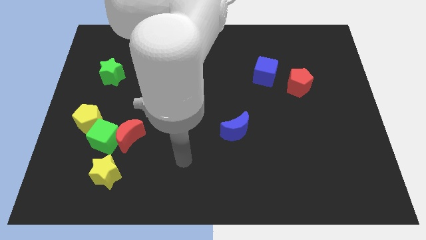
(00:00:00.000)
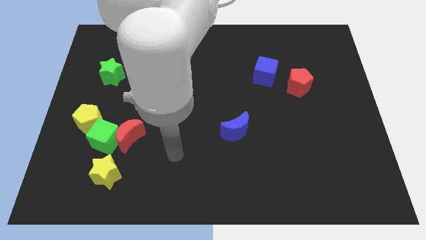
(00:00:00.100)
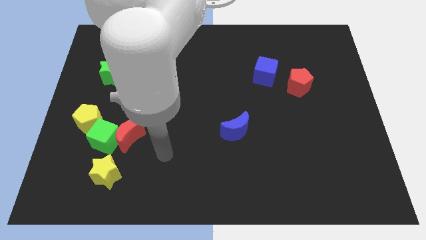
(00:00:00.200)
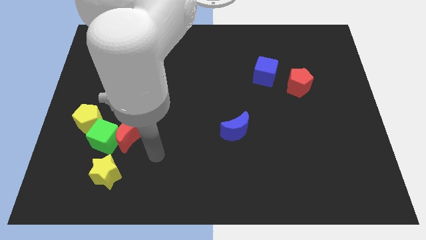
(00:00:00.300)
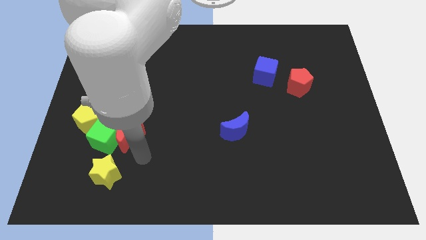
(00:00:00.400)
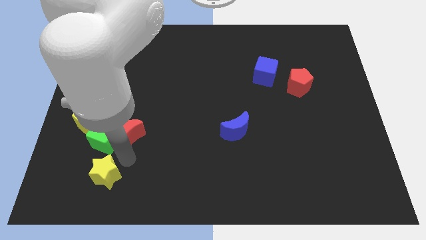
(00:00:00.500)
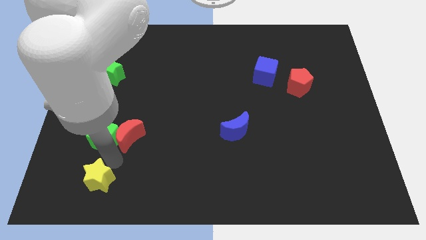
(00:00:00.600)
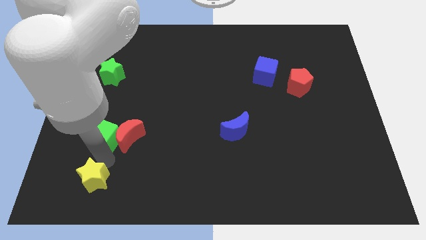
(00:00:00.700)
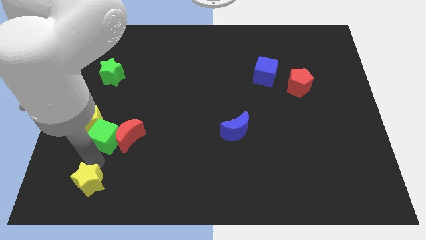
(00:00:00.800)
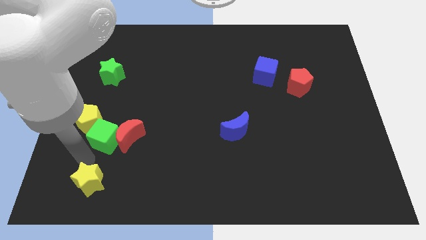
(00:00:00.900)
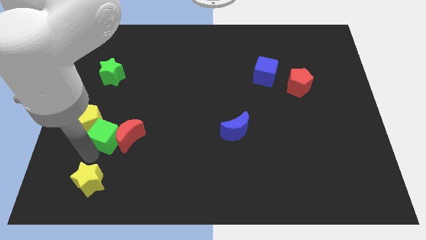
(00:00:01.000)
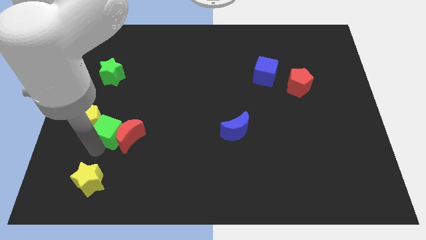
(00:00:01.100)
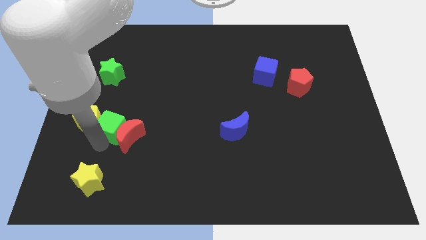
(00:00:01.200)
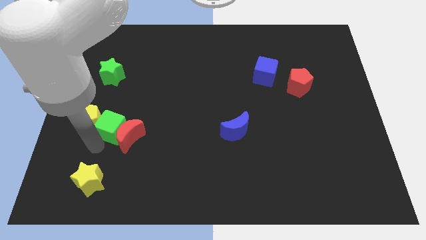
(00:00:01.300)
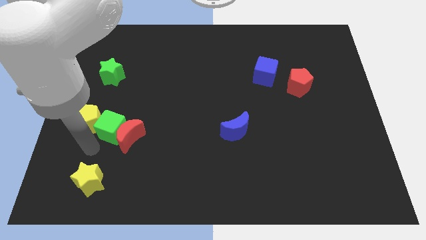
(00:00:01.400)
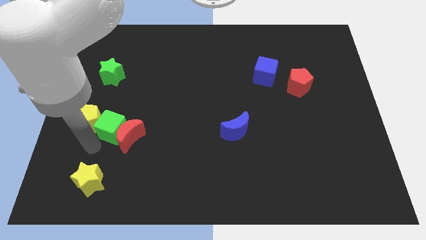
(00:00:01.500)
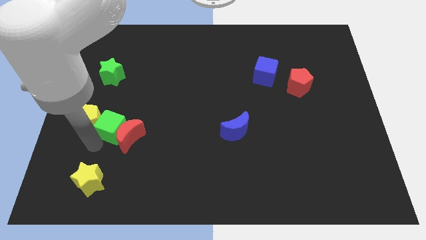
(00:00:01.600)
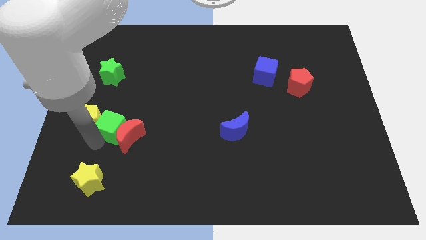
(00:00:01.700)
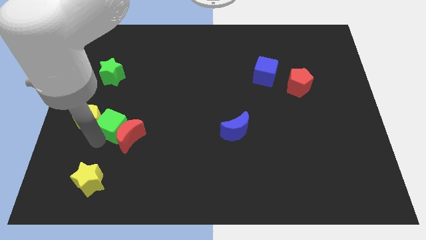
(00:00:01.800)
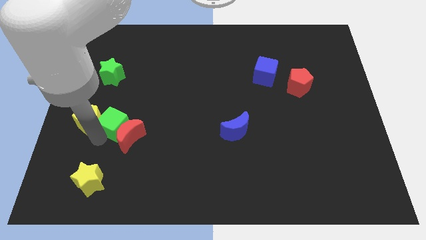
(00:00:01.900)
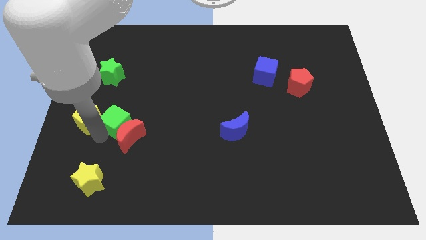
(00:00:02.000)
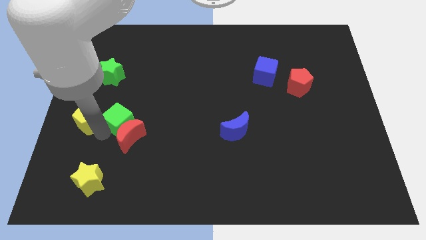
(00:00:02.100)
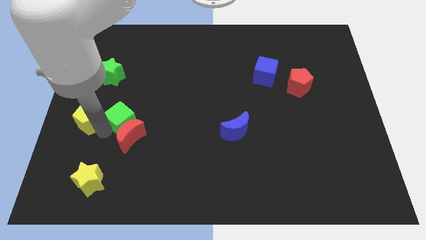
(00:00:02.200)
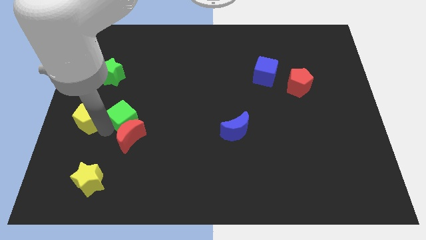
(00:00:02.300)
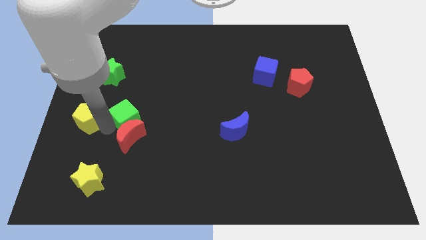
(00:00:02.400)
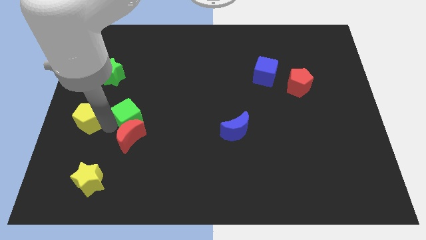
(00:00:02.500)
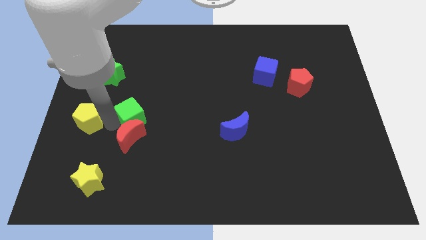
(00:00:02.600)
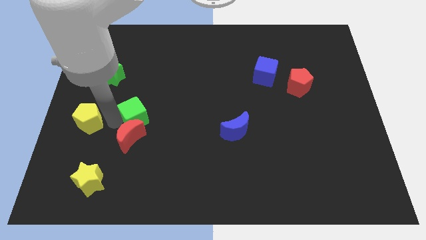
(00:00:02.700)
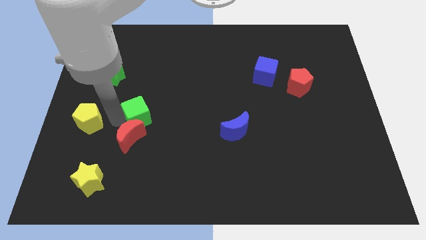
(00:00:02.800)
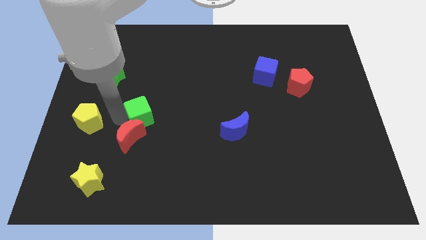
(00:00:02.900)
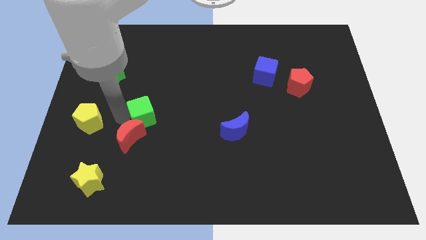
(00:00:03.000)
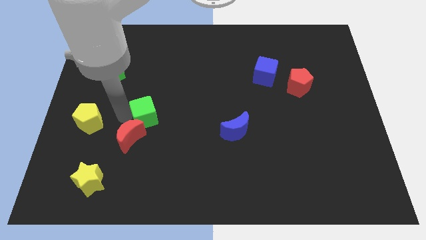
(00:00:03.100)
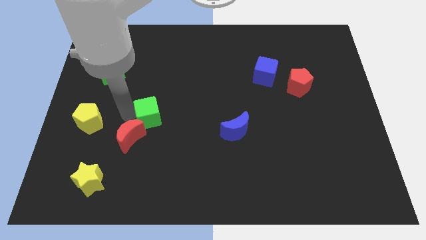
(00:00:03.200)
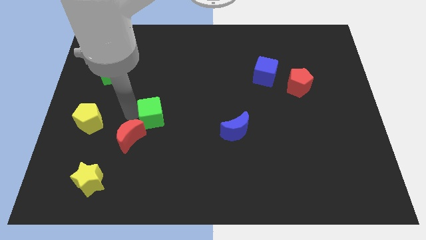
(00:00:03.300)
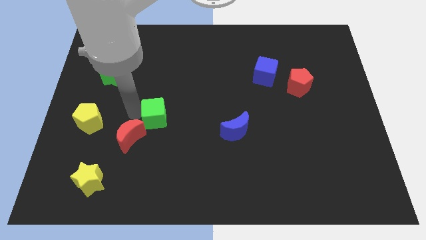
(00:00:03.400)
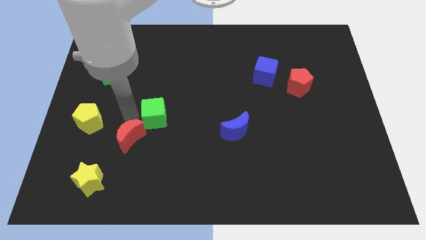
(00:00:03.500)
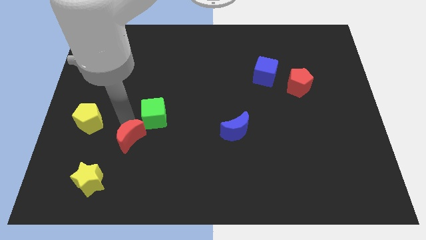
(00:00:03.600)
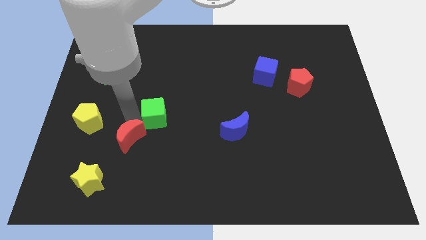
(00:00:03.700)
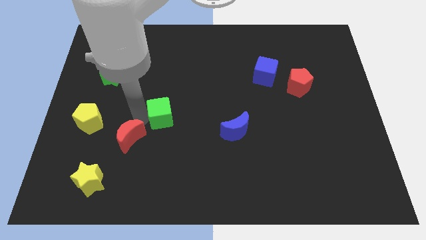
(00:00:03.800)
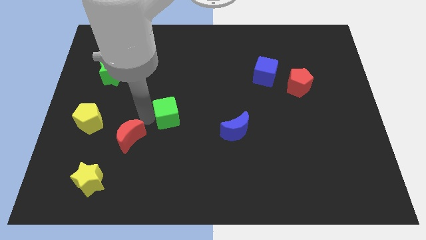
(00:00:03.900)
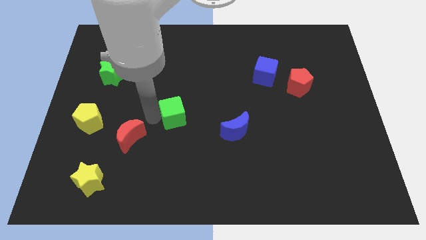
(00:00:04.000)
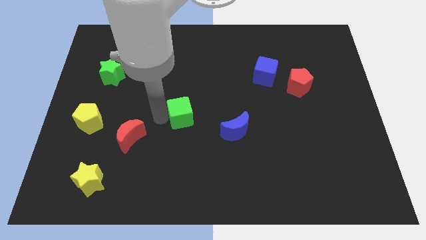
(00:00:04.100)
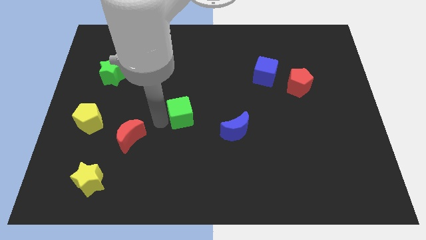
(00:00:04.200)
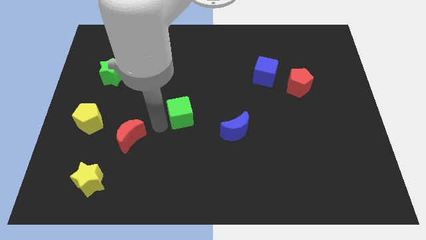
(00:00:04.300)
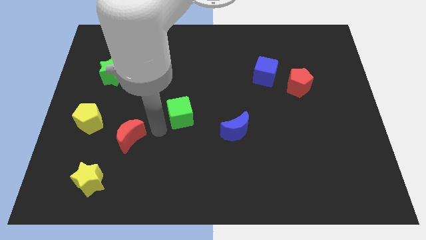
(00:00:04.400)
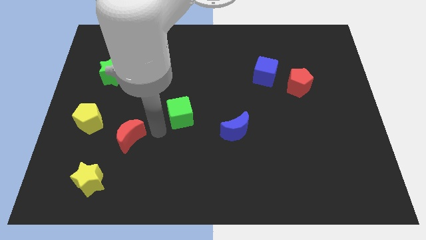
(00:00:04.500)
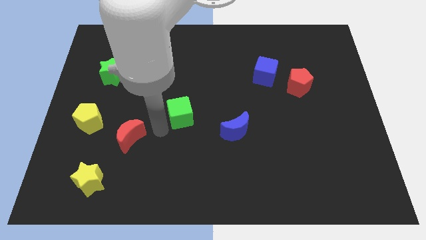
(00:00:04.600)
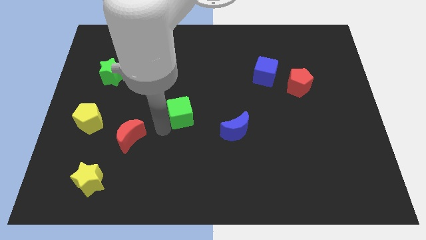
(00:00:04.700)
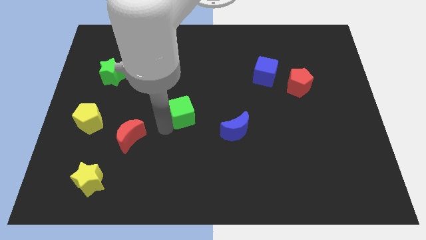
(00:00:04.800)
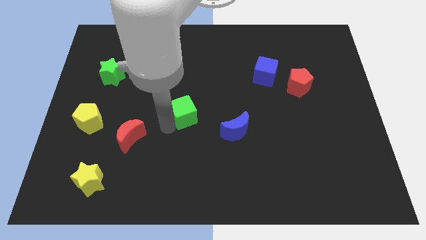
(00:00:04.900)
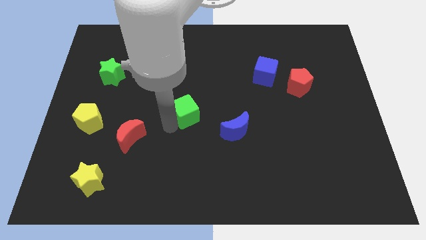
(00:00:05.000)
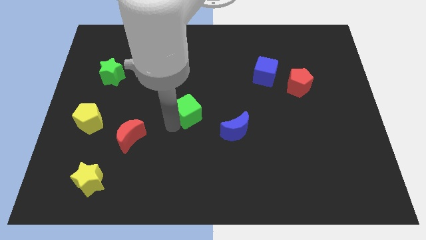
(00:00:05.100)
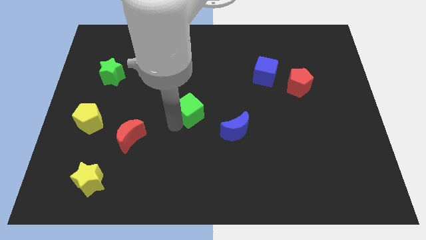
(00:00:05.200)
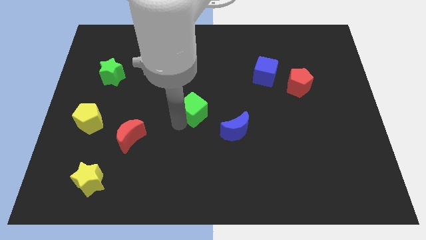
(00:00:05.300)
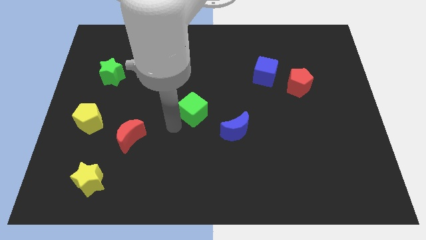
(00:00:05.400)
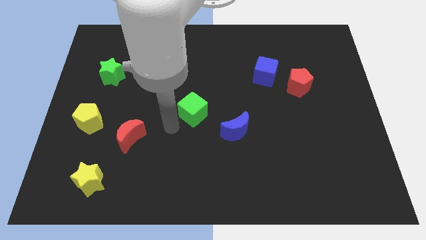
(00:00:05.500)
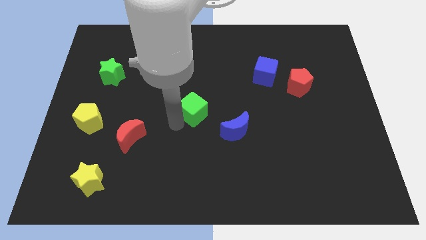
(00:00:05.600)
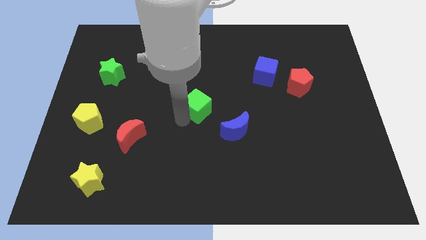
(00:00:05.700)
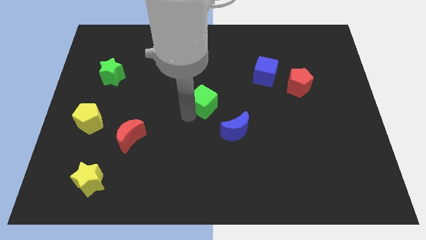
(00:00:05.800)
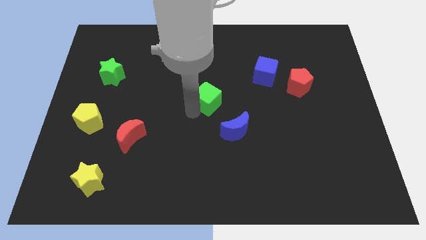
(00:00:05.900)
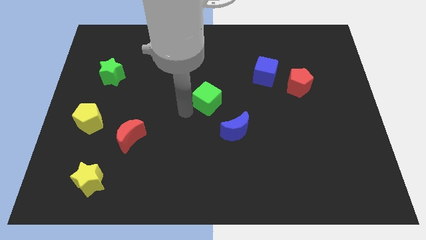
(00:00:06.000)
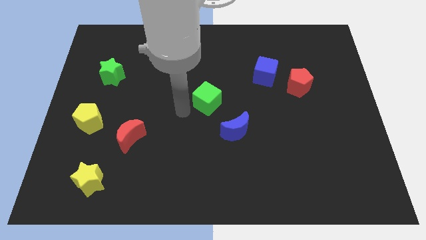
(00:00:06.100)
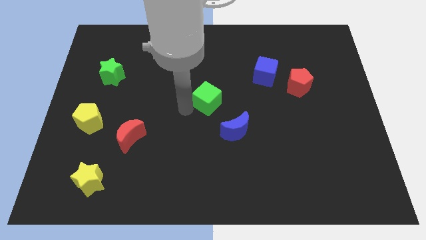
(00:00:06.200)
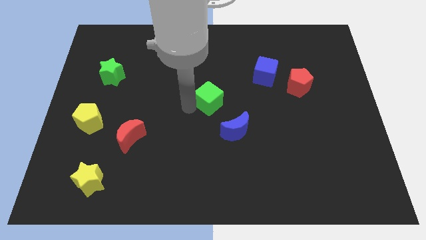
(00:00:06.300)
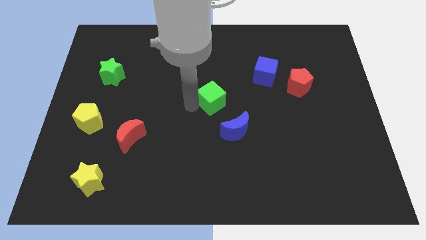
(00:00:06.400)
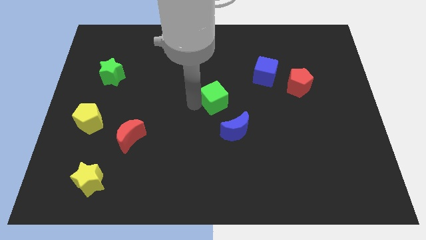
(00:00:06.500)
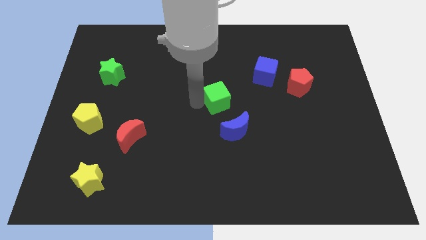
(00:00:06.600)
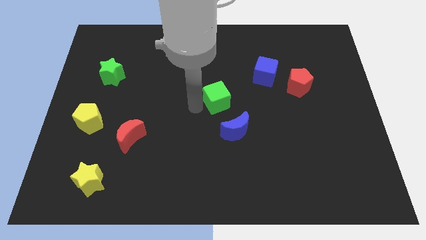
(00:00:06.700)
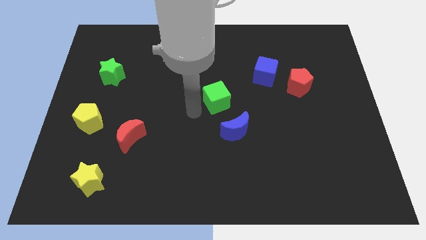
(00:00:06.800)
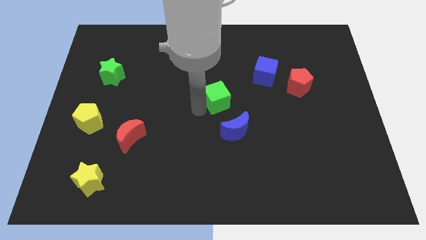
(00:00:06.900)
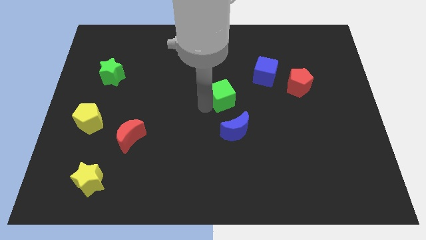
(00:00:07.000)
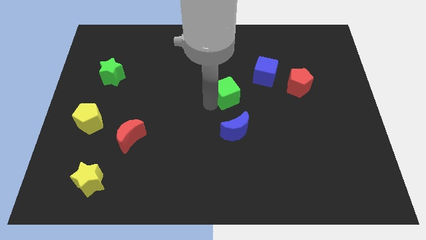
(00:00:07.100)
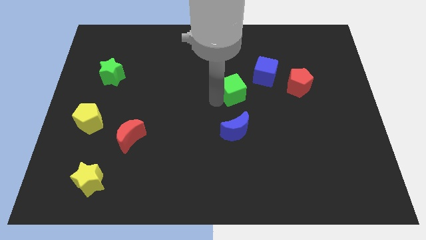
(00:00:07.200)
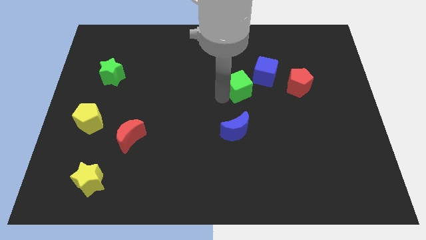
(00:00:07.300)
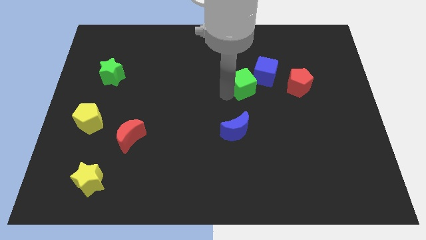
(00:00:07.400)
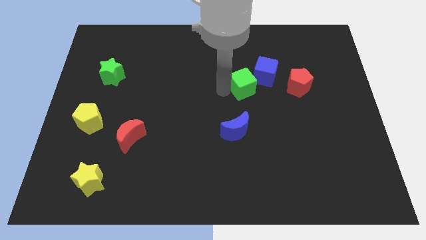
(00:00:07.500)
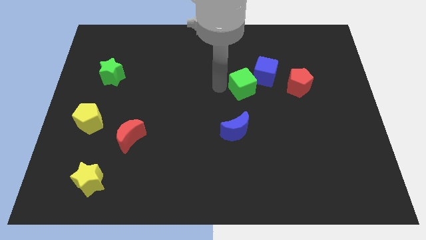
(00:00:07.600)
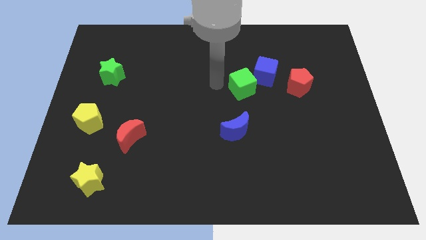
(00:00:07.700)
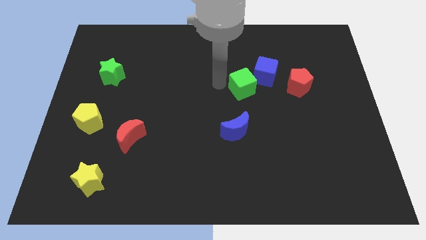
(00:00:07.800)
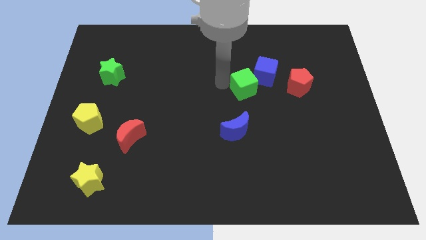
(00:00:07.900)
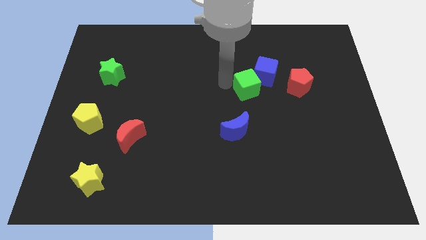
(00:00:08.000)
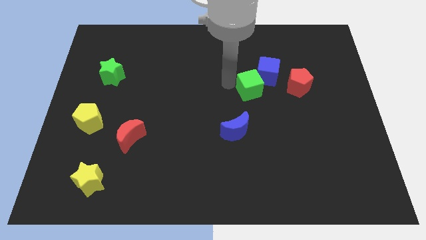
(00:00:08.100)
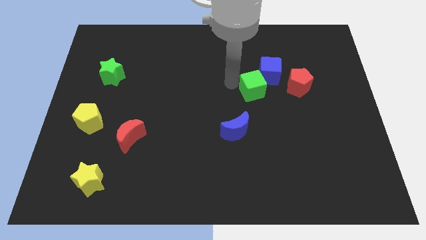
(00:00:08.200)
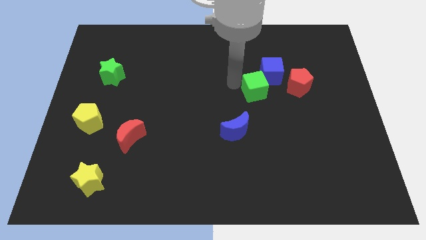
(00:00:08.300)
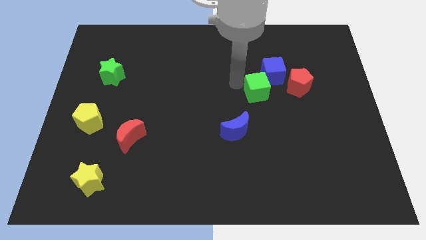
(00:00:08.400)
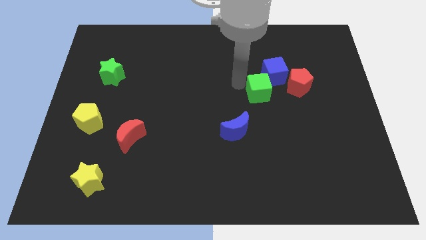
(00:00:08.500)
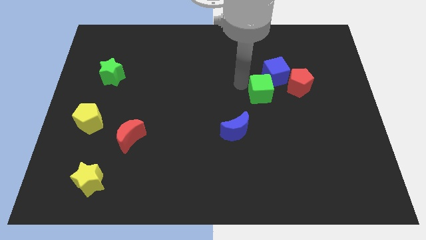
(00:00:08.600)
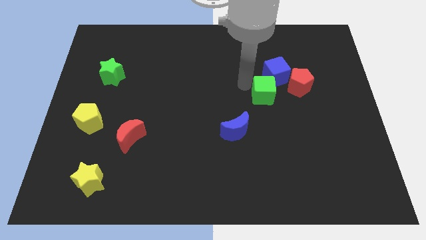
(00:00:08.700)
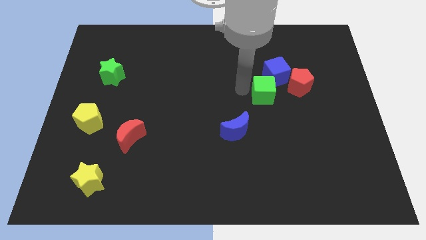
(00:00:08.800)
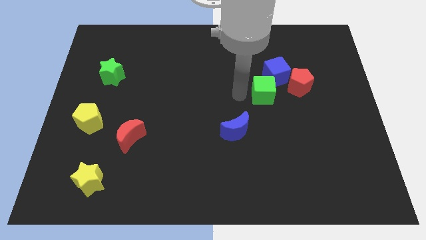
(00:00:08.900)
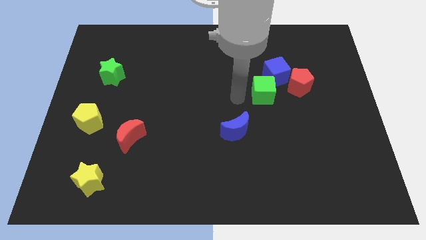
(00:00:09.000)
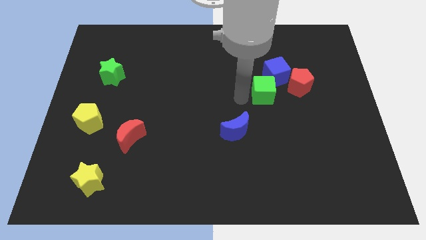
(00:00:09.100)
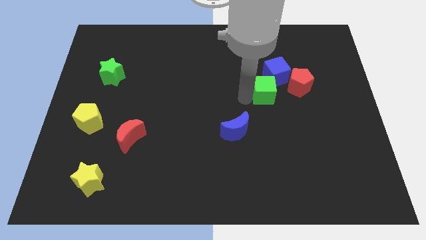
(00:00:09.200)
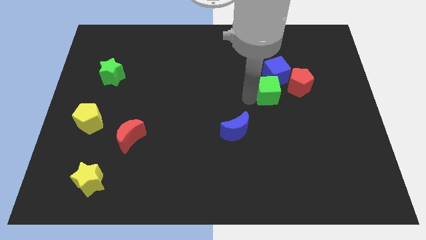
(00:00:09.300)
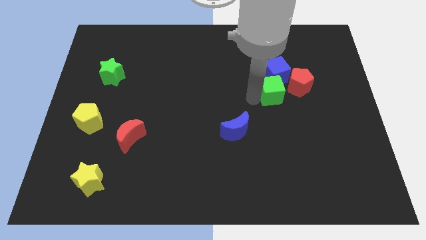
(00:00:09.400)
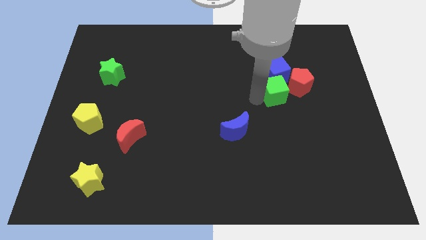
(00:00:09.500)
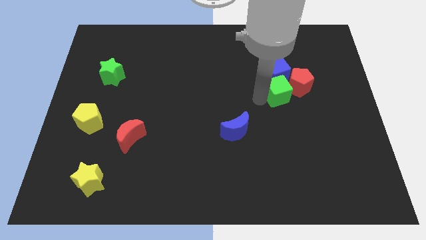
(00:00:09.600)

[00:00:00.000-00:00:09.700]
put the green cube to the red pentagon
